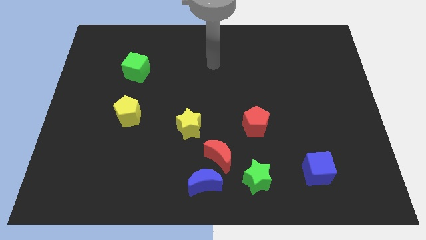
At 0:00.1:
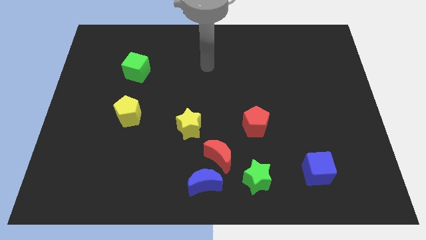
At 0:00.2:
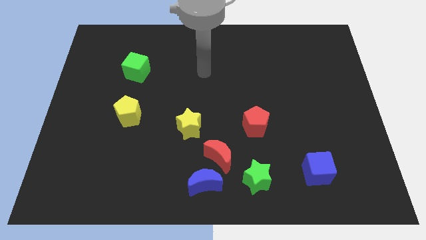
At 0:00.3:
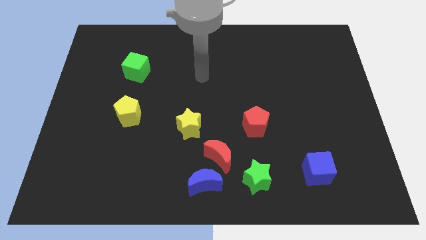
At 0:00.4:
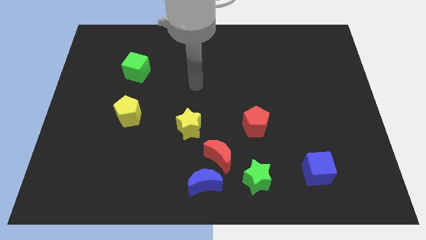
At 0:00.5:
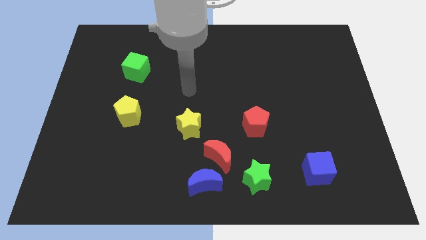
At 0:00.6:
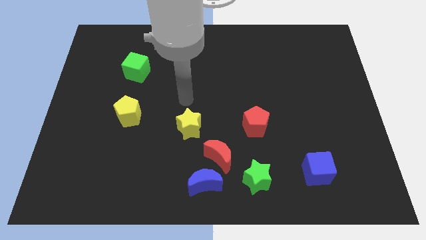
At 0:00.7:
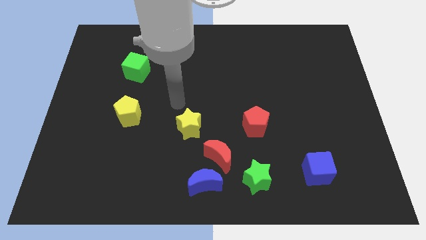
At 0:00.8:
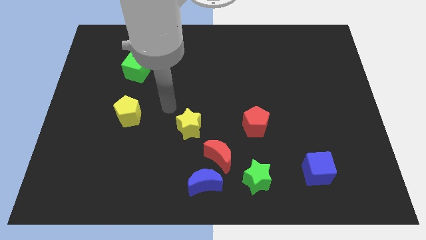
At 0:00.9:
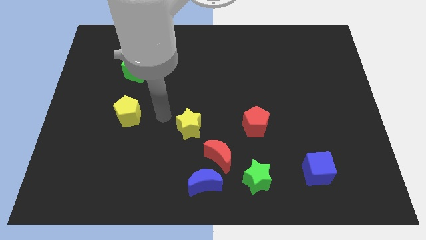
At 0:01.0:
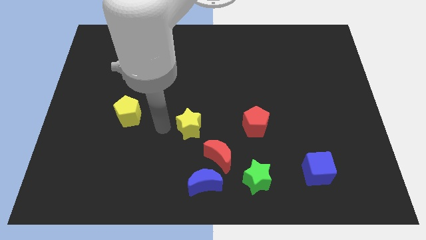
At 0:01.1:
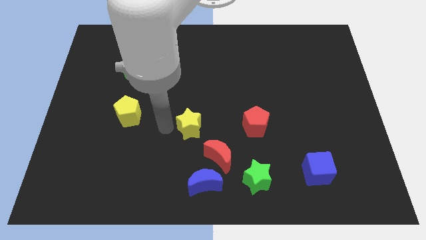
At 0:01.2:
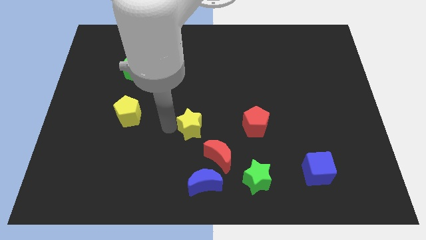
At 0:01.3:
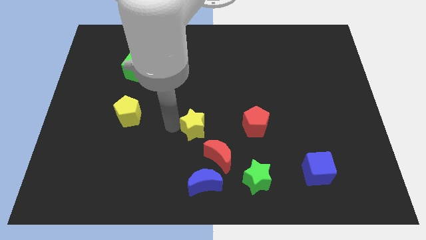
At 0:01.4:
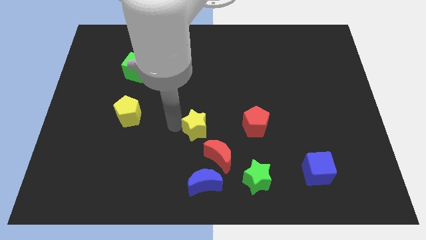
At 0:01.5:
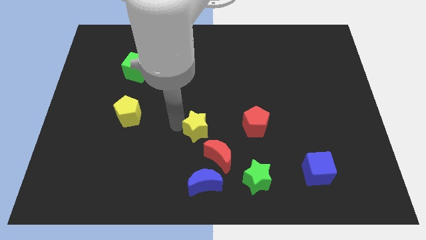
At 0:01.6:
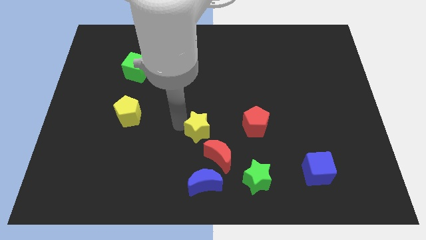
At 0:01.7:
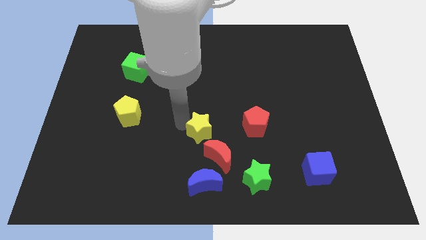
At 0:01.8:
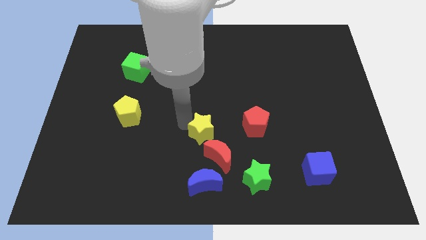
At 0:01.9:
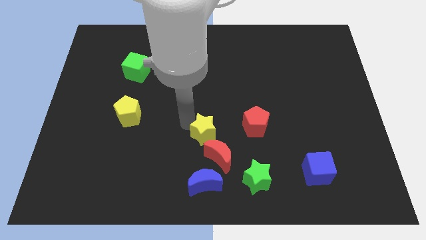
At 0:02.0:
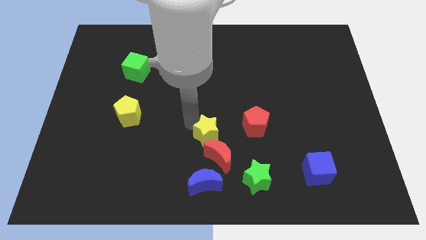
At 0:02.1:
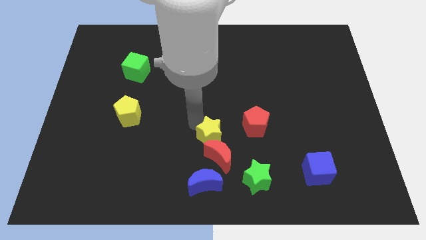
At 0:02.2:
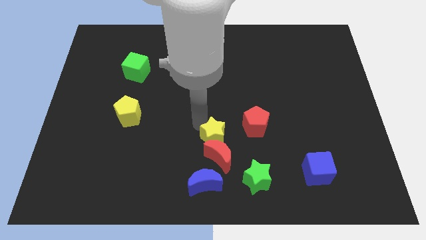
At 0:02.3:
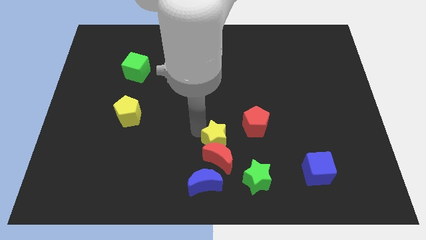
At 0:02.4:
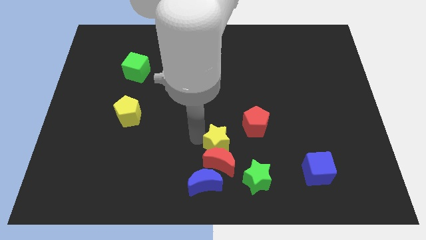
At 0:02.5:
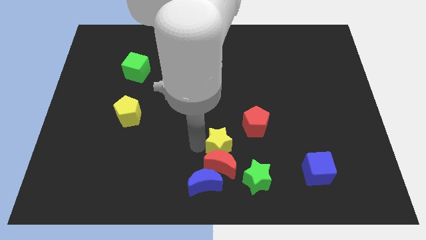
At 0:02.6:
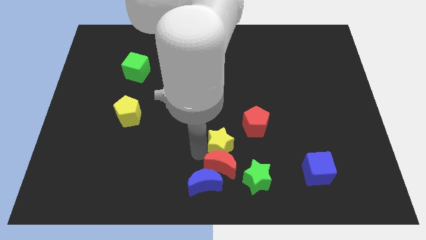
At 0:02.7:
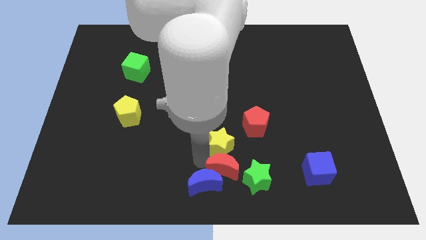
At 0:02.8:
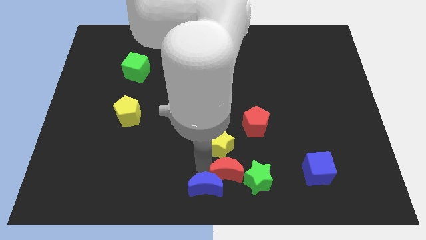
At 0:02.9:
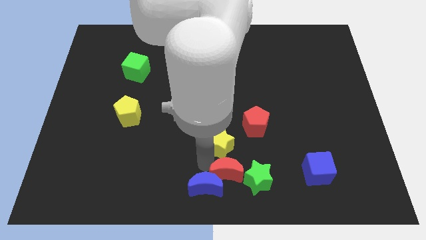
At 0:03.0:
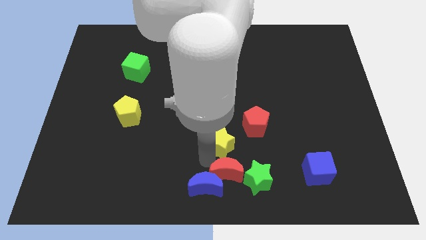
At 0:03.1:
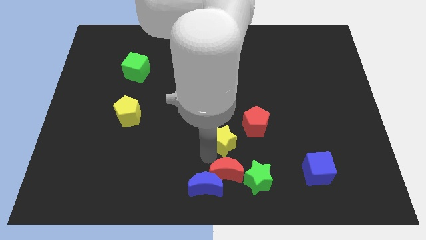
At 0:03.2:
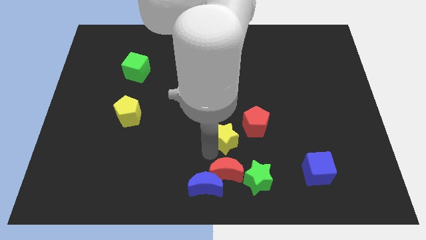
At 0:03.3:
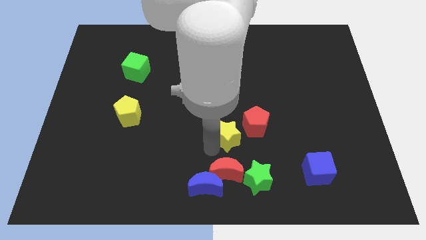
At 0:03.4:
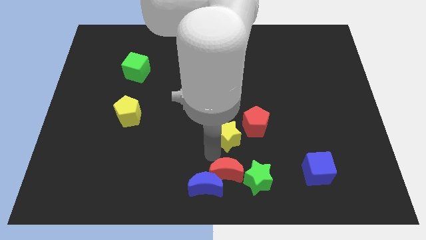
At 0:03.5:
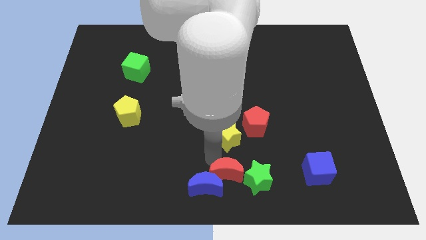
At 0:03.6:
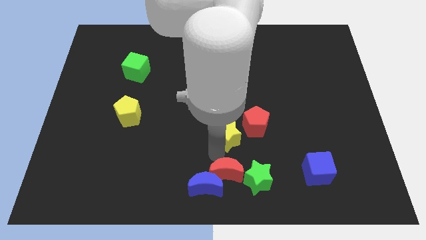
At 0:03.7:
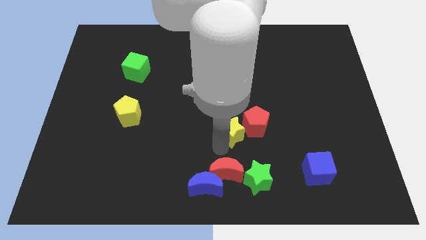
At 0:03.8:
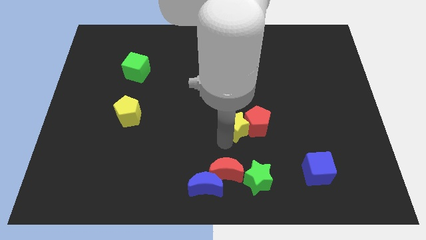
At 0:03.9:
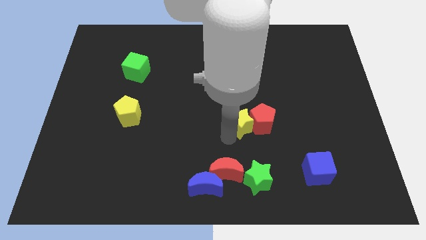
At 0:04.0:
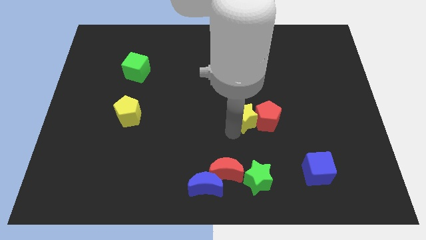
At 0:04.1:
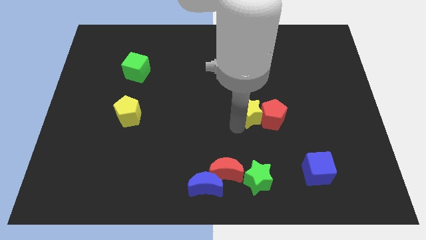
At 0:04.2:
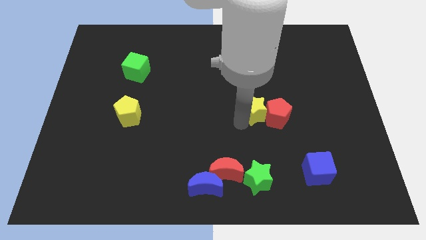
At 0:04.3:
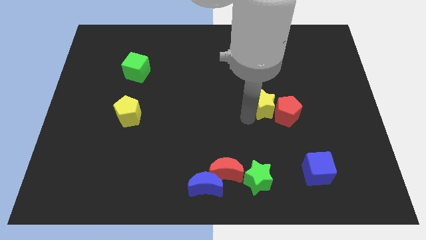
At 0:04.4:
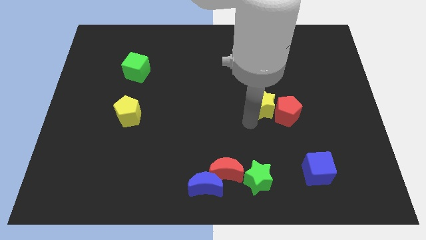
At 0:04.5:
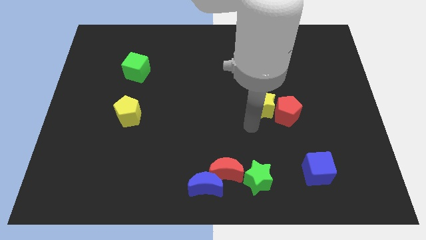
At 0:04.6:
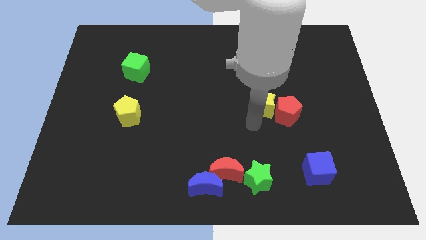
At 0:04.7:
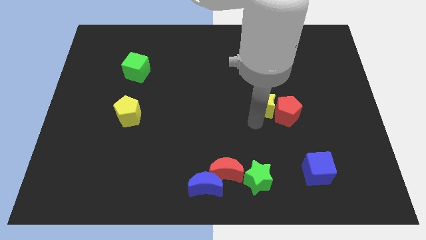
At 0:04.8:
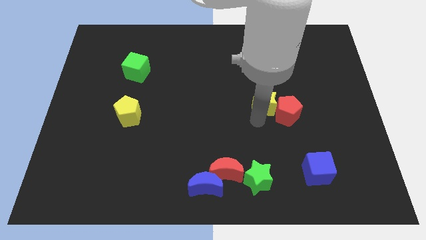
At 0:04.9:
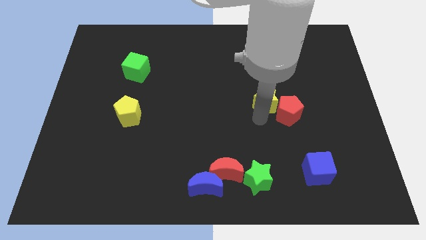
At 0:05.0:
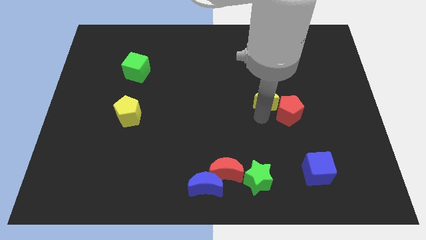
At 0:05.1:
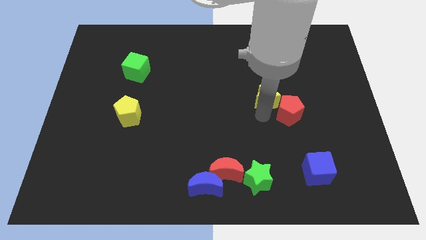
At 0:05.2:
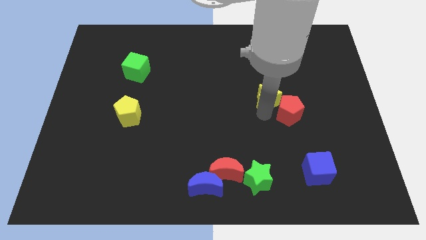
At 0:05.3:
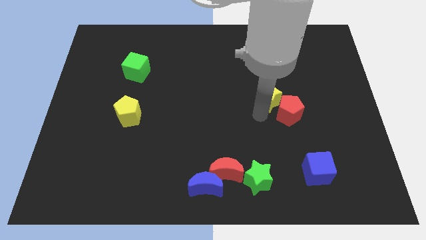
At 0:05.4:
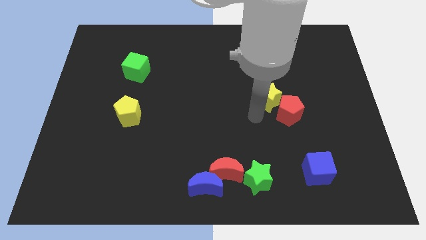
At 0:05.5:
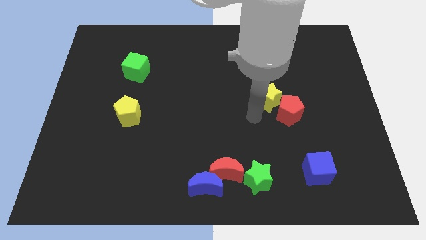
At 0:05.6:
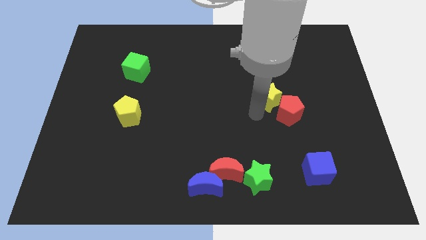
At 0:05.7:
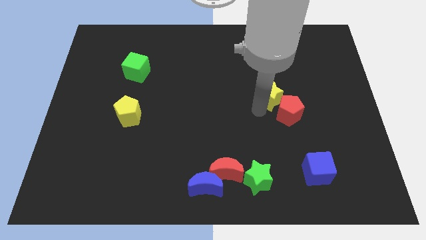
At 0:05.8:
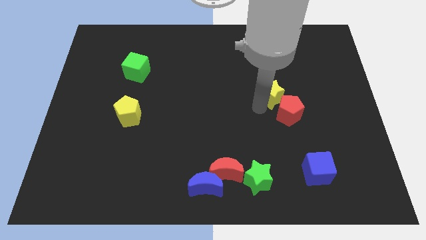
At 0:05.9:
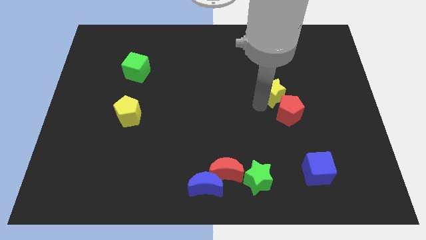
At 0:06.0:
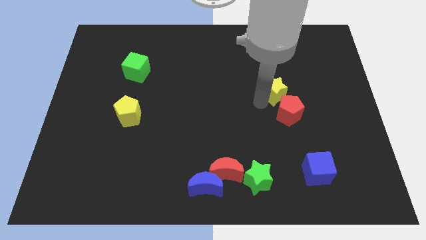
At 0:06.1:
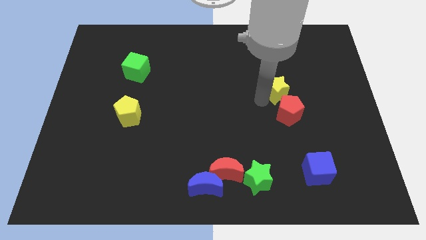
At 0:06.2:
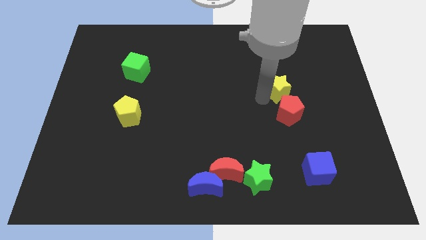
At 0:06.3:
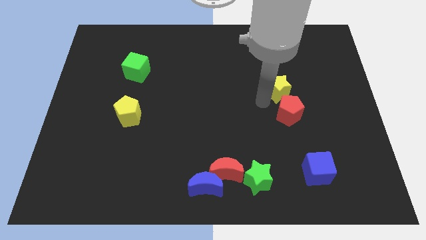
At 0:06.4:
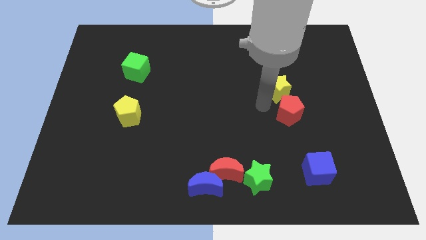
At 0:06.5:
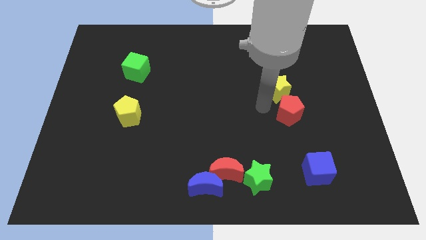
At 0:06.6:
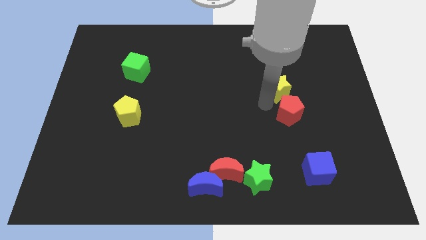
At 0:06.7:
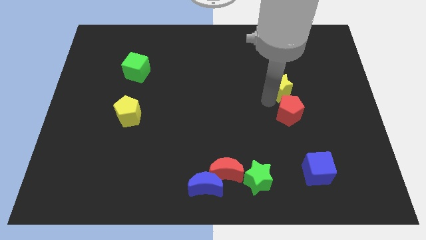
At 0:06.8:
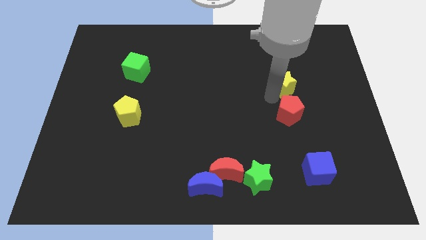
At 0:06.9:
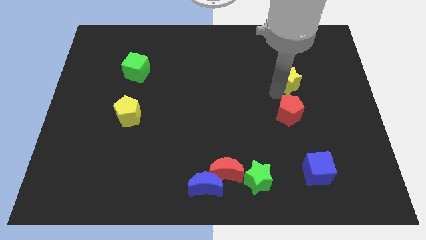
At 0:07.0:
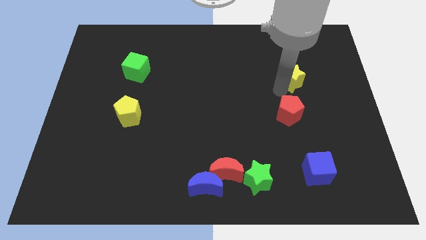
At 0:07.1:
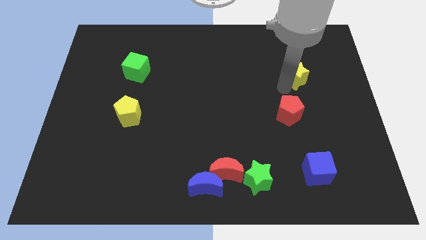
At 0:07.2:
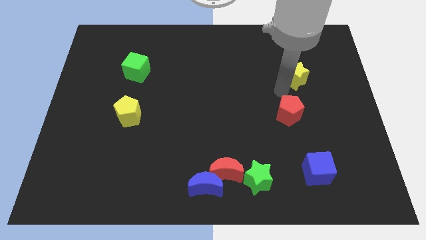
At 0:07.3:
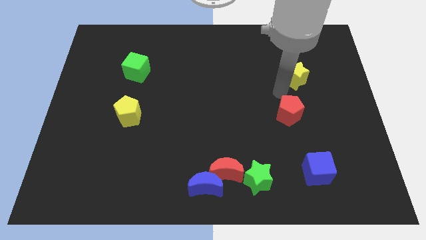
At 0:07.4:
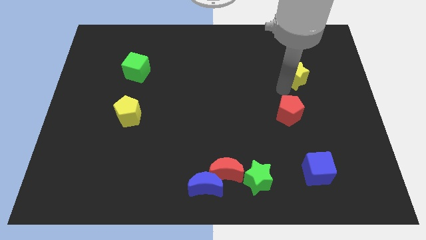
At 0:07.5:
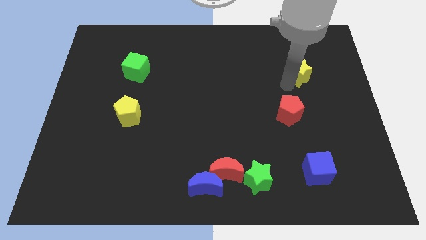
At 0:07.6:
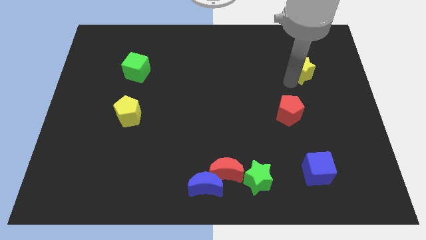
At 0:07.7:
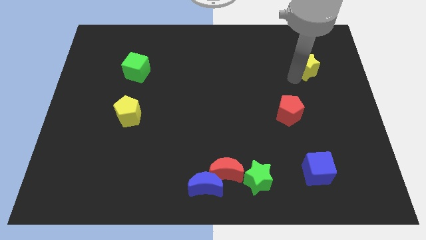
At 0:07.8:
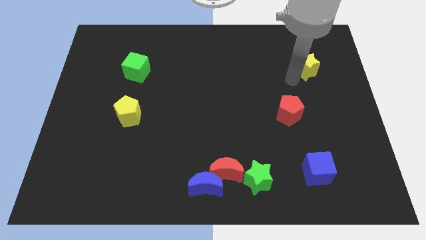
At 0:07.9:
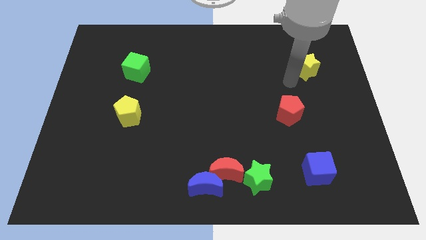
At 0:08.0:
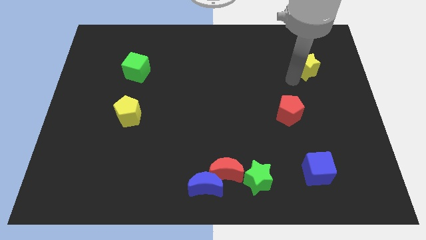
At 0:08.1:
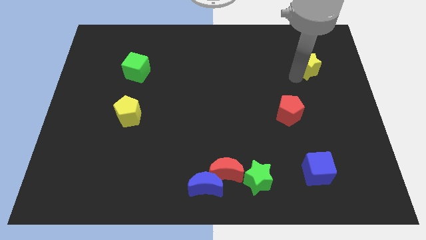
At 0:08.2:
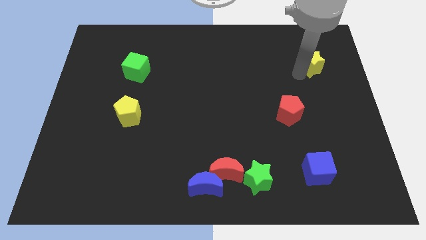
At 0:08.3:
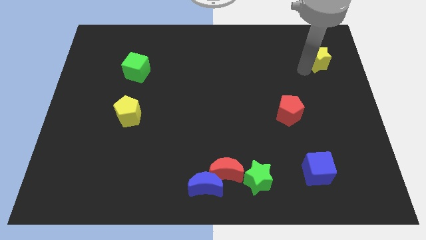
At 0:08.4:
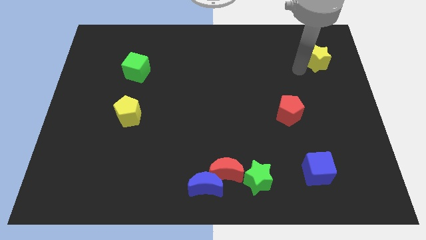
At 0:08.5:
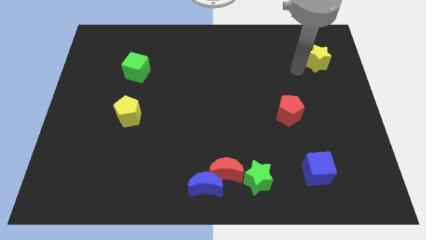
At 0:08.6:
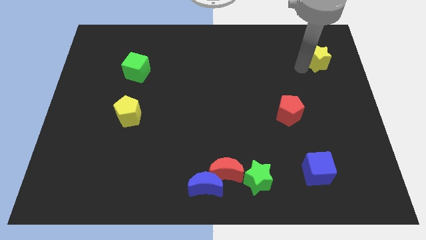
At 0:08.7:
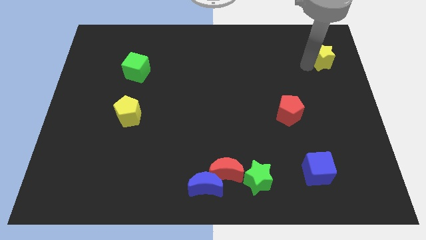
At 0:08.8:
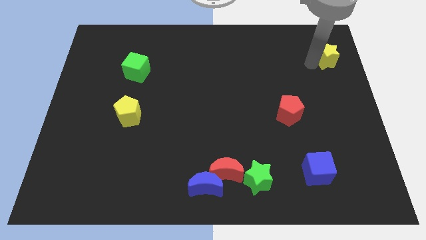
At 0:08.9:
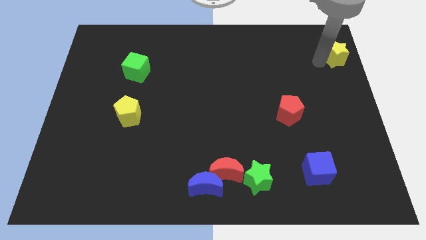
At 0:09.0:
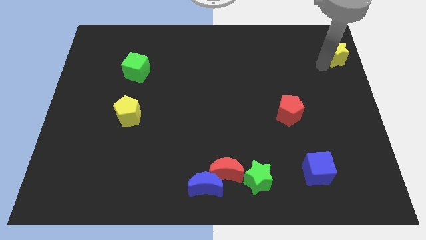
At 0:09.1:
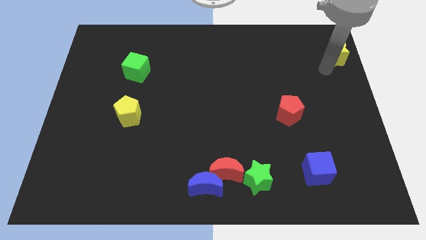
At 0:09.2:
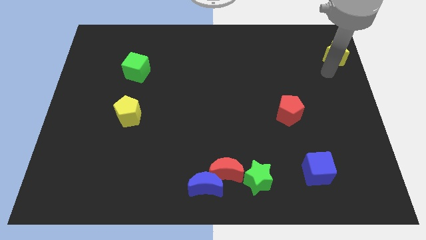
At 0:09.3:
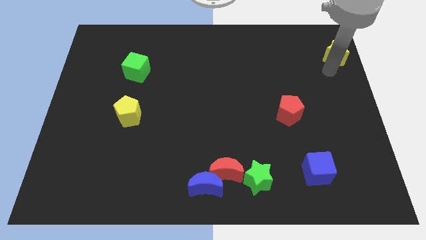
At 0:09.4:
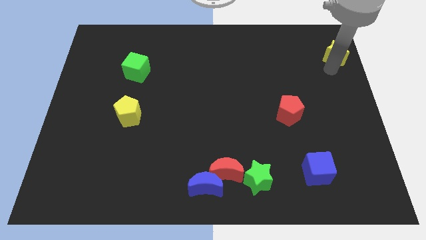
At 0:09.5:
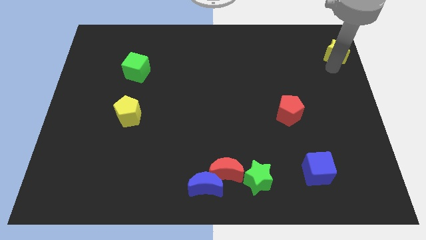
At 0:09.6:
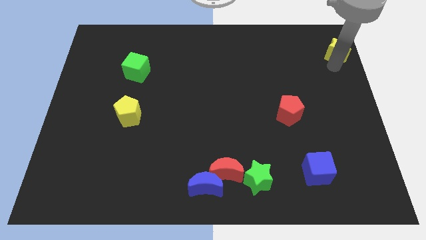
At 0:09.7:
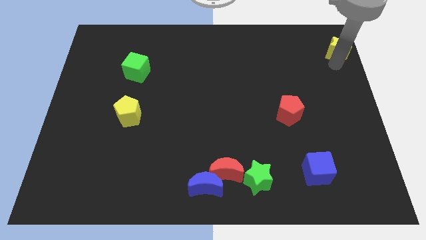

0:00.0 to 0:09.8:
push the yellow star to the top right of the board
